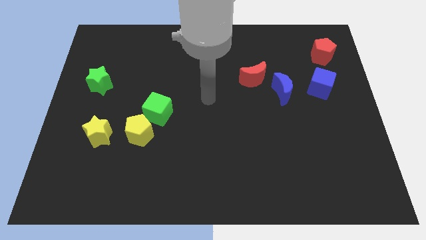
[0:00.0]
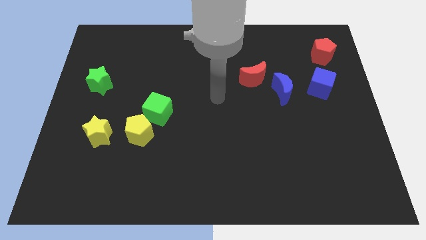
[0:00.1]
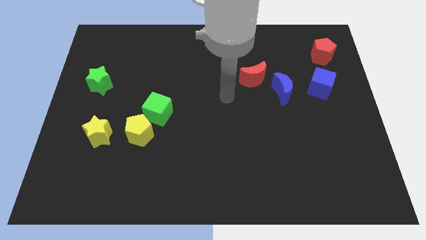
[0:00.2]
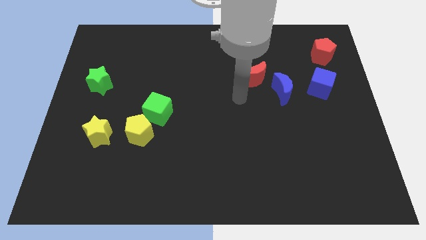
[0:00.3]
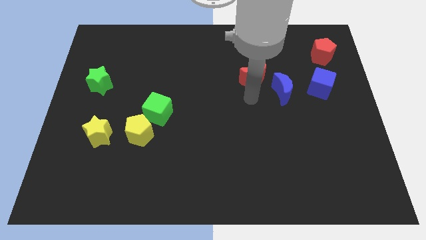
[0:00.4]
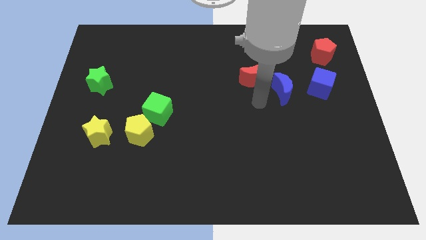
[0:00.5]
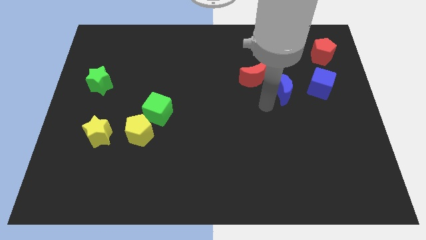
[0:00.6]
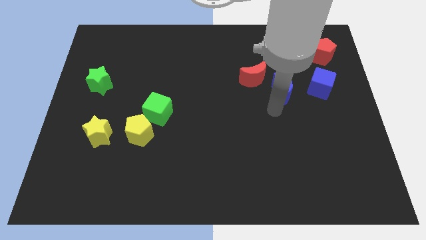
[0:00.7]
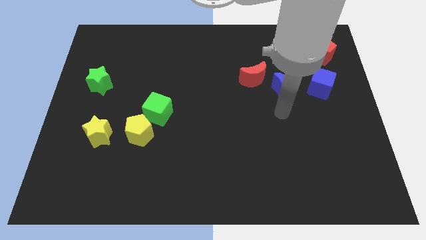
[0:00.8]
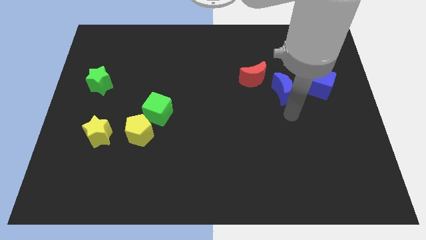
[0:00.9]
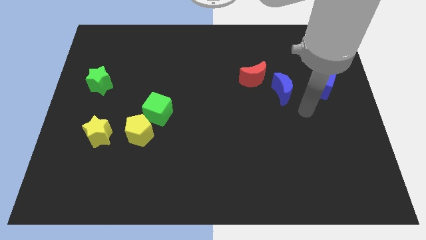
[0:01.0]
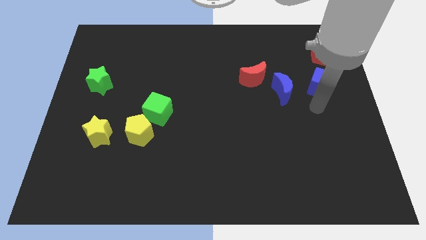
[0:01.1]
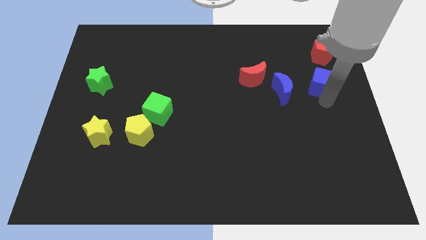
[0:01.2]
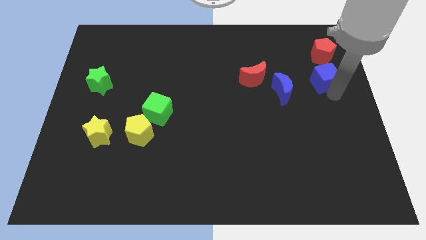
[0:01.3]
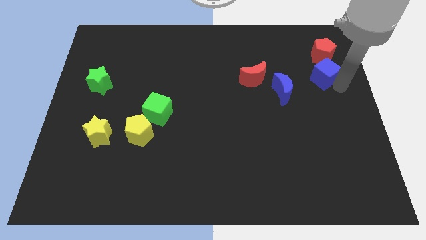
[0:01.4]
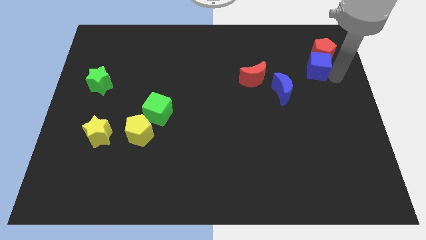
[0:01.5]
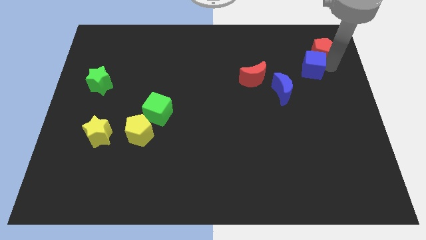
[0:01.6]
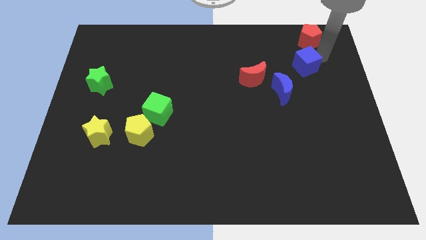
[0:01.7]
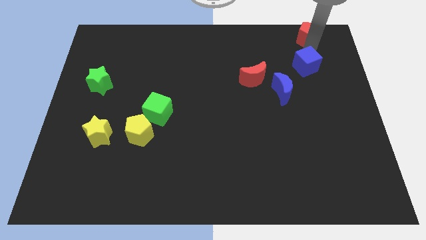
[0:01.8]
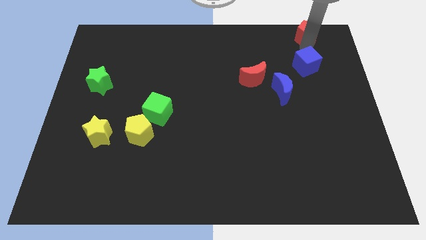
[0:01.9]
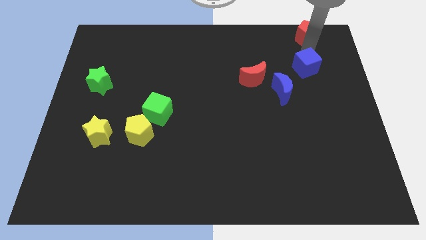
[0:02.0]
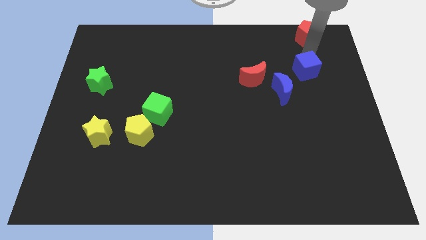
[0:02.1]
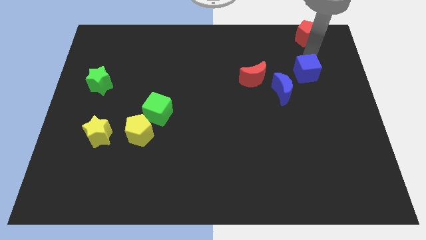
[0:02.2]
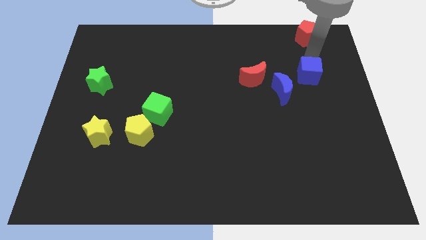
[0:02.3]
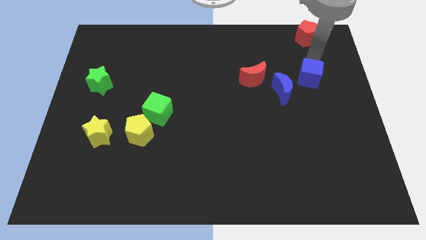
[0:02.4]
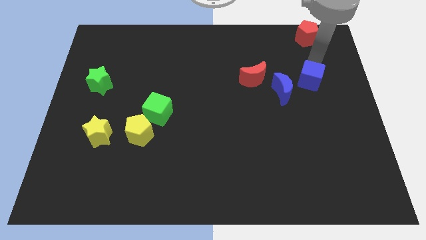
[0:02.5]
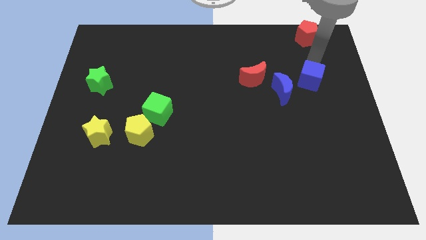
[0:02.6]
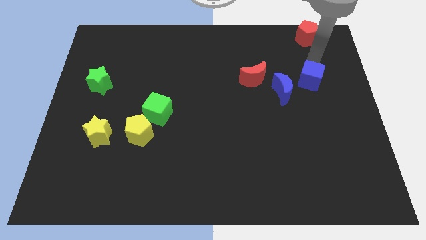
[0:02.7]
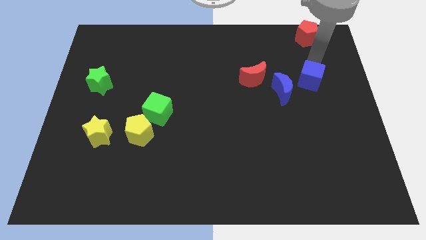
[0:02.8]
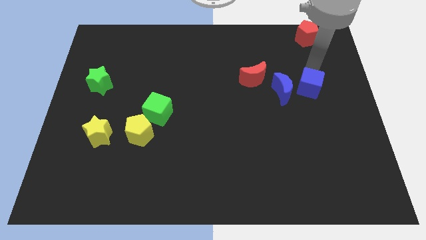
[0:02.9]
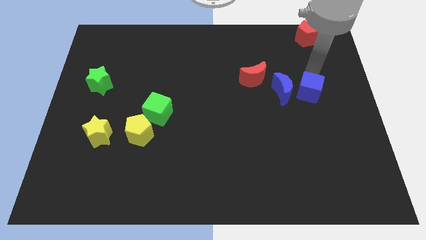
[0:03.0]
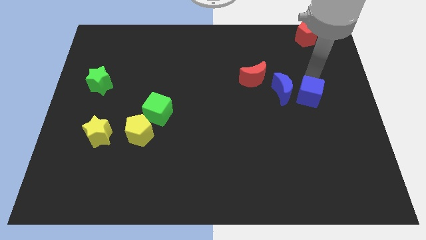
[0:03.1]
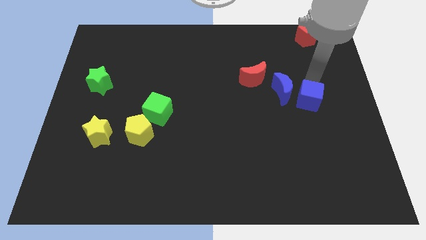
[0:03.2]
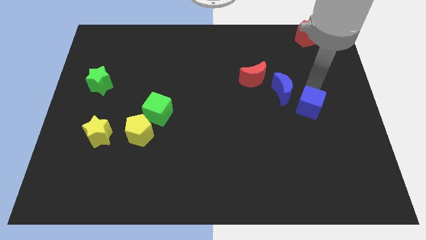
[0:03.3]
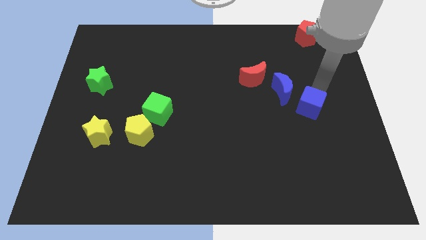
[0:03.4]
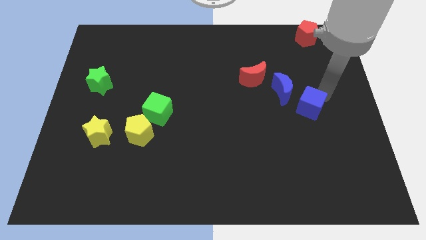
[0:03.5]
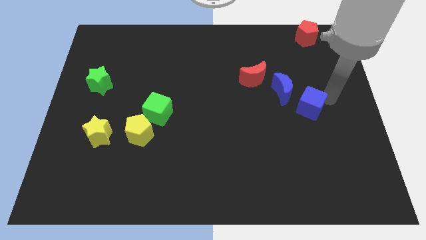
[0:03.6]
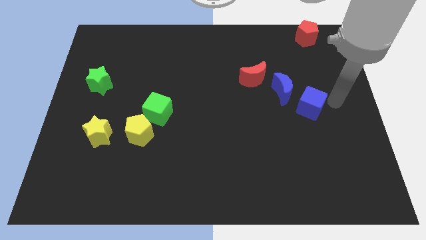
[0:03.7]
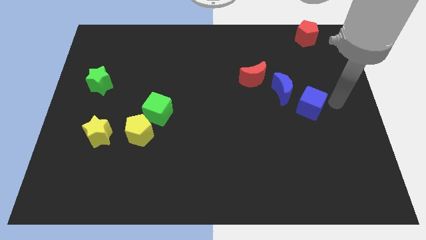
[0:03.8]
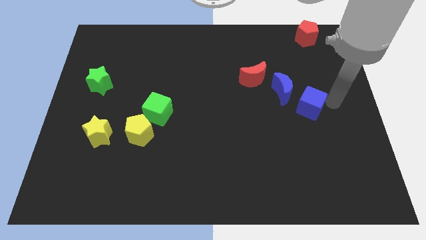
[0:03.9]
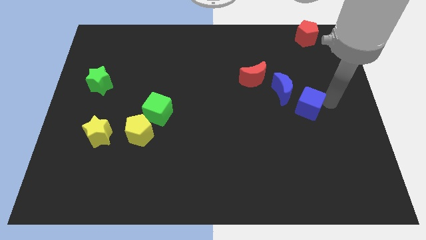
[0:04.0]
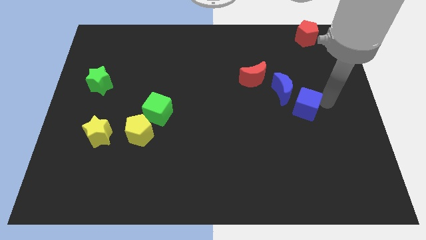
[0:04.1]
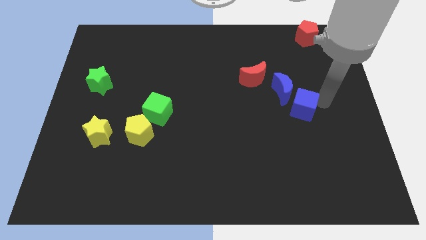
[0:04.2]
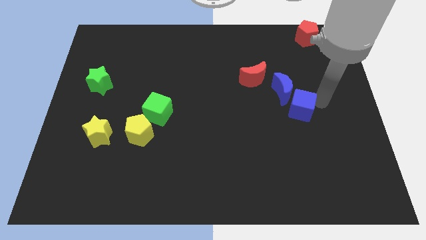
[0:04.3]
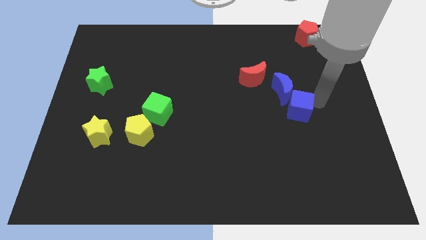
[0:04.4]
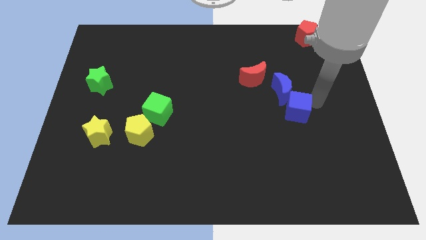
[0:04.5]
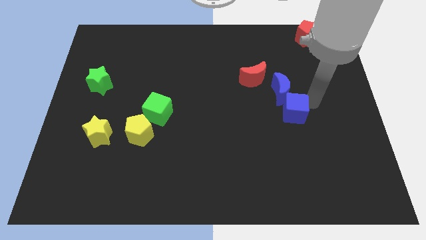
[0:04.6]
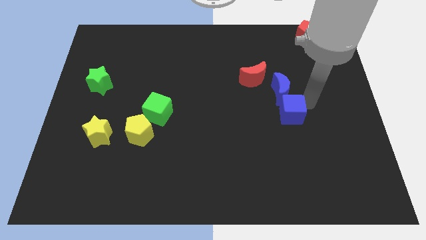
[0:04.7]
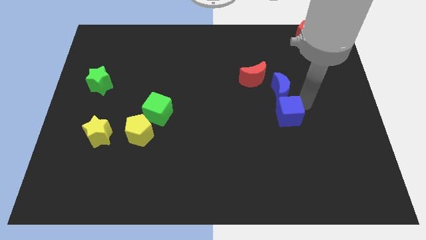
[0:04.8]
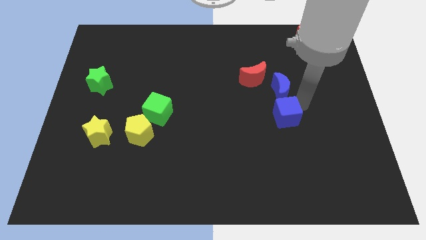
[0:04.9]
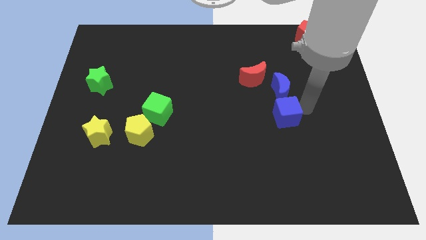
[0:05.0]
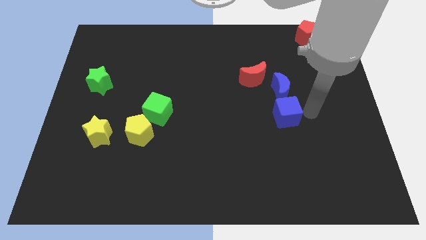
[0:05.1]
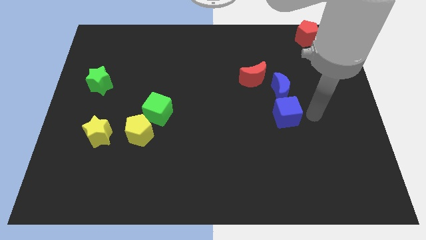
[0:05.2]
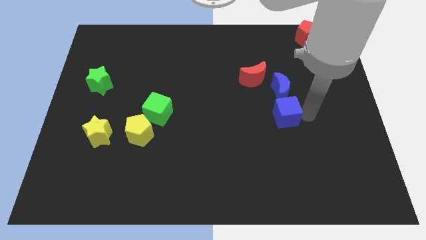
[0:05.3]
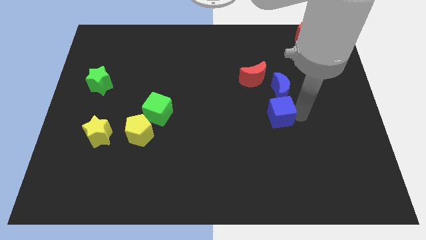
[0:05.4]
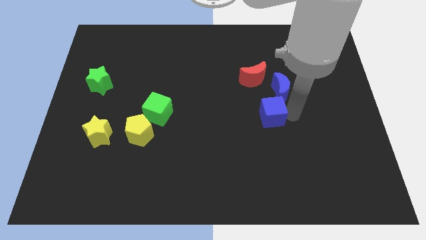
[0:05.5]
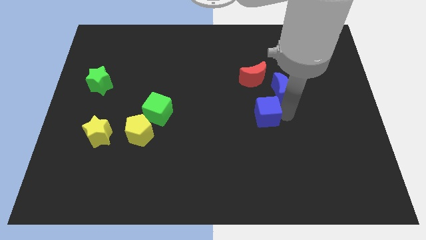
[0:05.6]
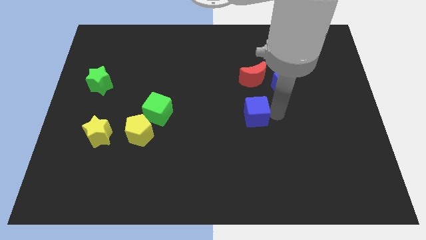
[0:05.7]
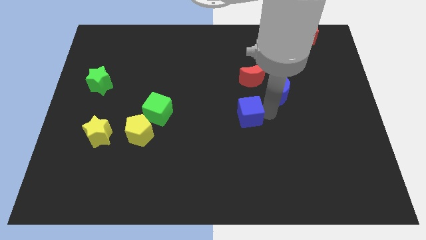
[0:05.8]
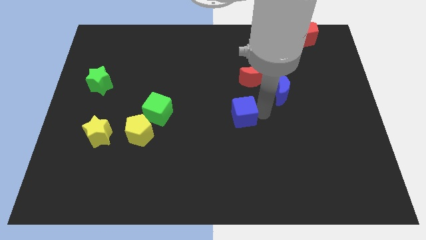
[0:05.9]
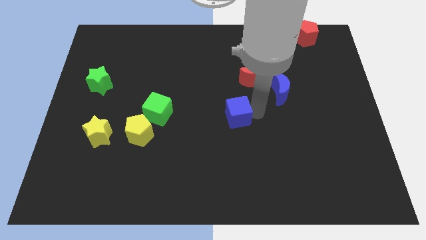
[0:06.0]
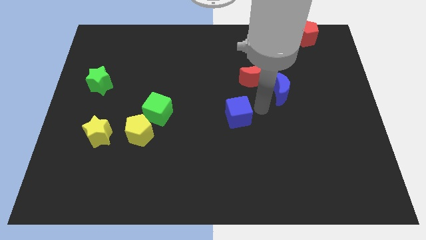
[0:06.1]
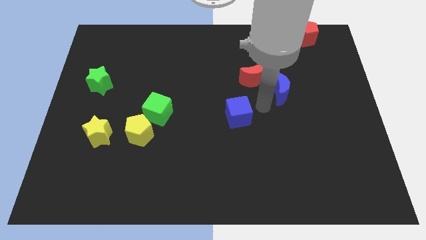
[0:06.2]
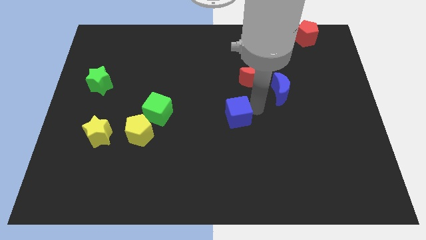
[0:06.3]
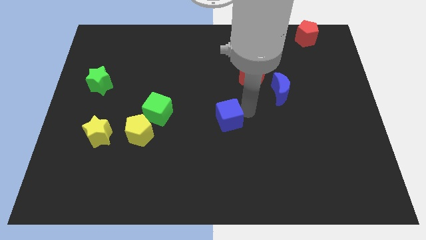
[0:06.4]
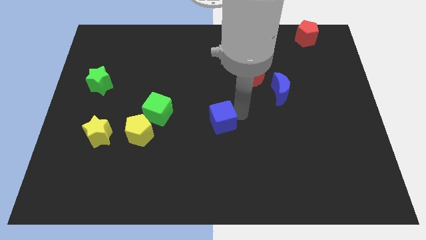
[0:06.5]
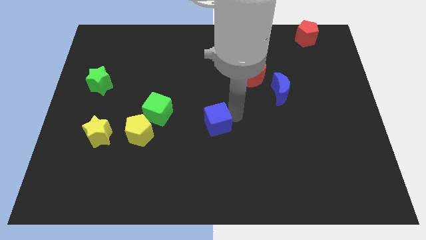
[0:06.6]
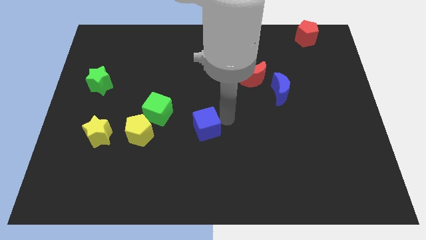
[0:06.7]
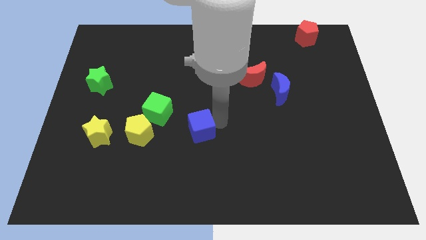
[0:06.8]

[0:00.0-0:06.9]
slide the blue cube to the bottom right of the green cube
